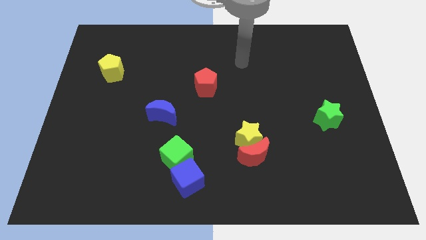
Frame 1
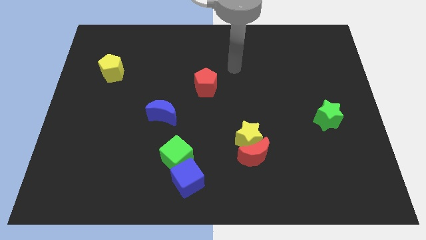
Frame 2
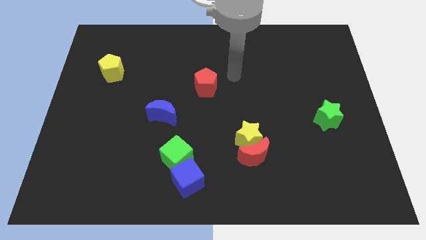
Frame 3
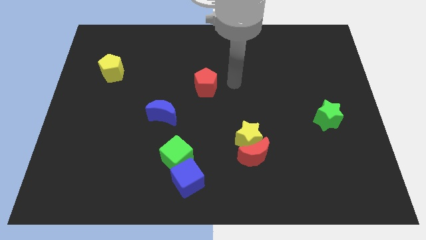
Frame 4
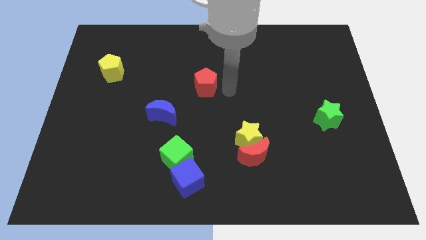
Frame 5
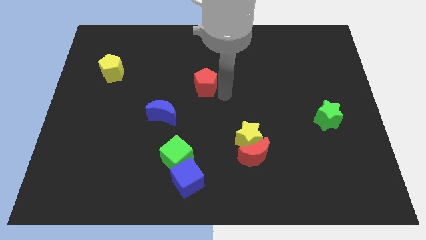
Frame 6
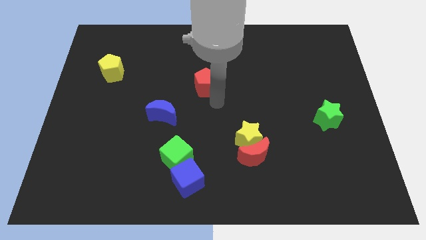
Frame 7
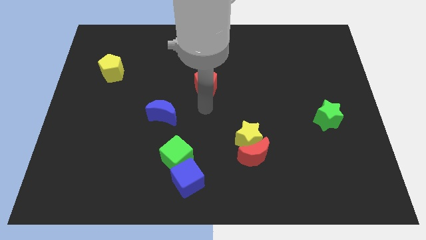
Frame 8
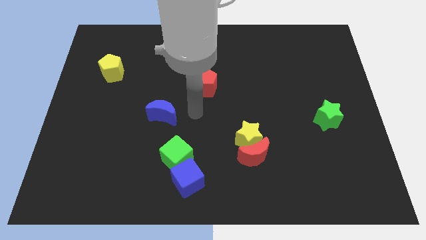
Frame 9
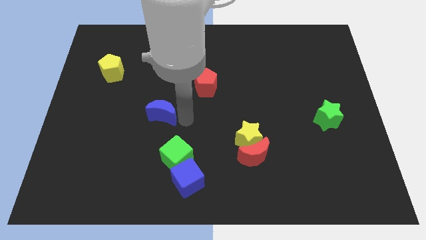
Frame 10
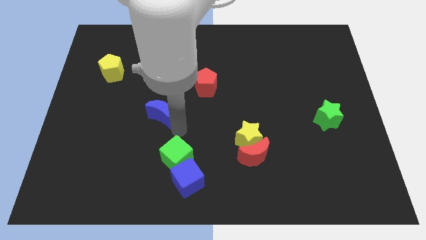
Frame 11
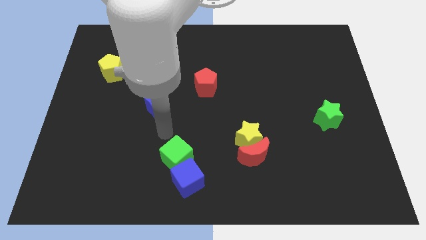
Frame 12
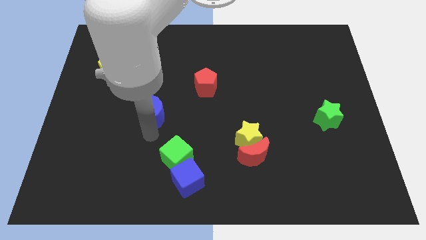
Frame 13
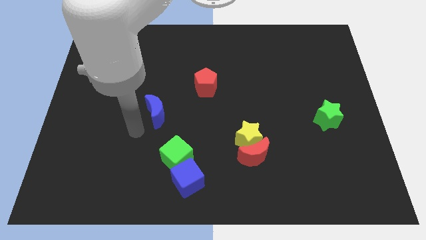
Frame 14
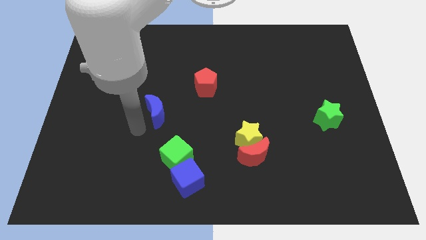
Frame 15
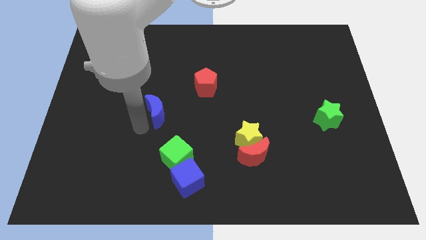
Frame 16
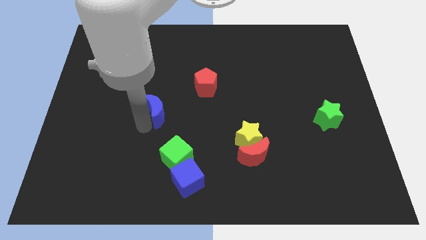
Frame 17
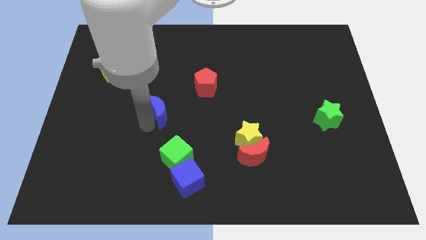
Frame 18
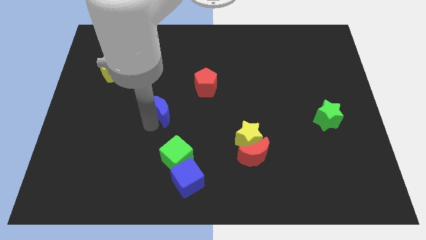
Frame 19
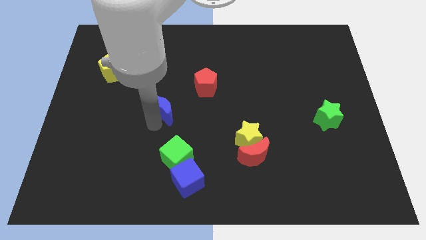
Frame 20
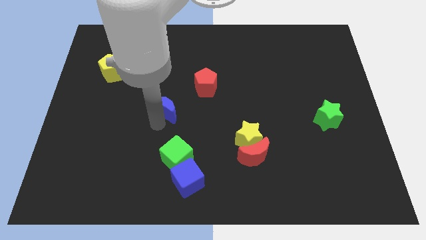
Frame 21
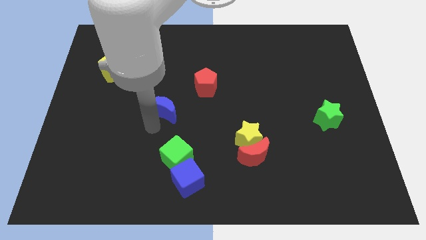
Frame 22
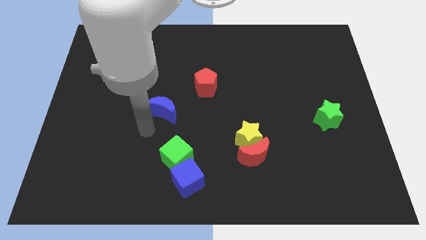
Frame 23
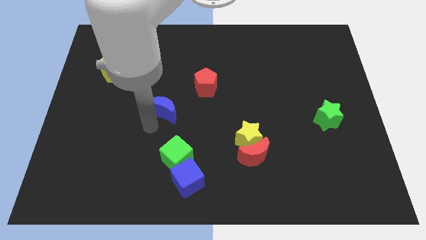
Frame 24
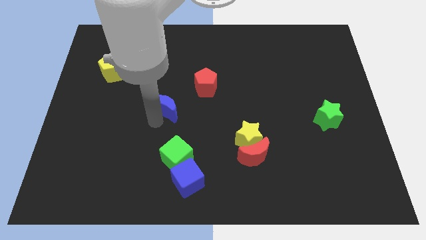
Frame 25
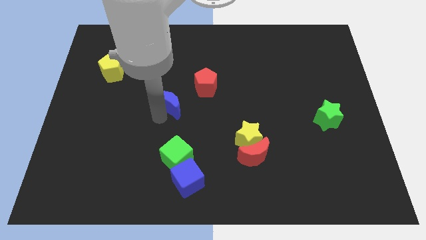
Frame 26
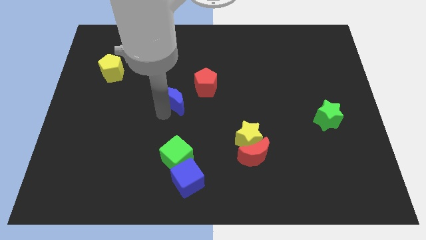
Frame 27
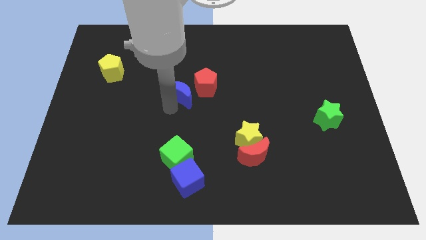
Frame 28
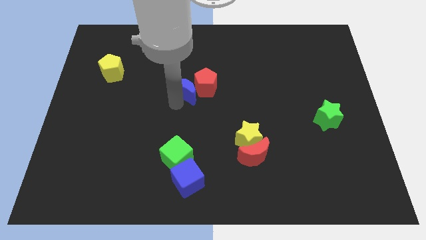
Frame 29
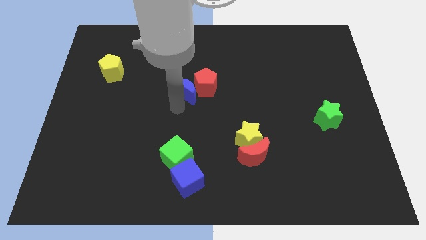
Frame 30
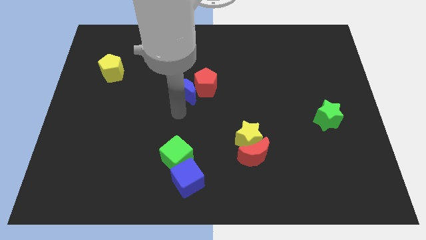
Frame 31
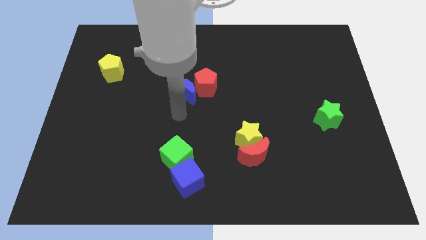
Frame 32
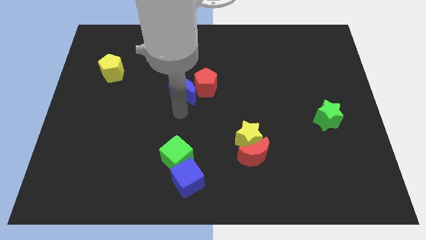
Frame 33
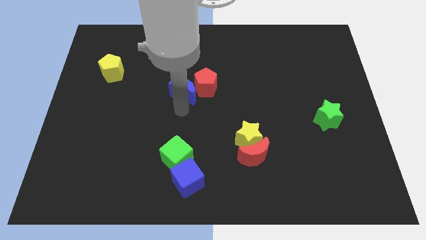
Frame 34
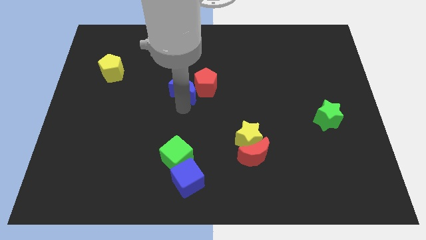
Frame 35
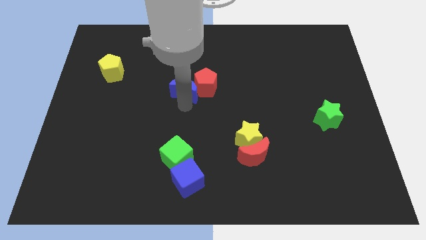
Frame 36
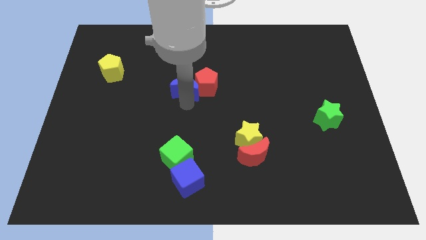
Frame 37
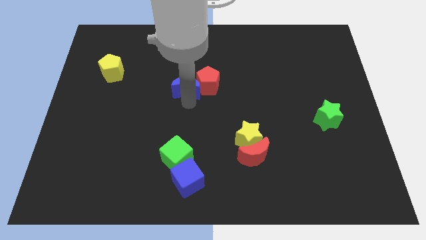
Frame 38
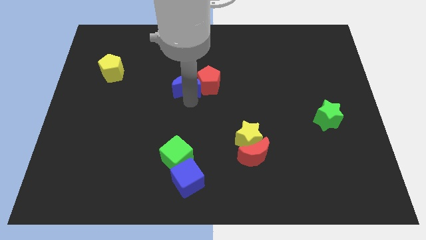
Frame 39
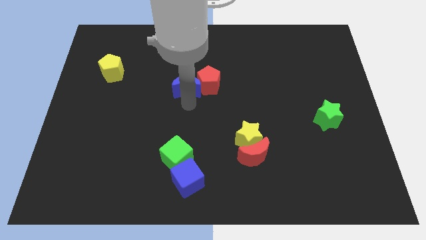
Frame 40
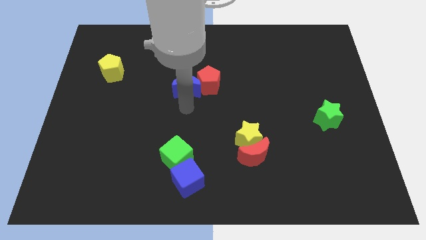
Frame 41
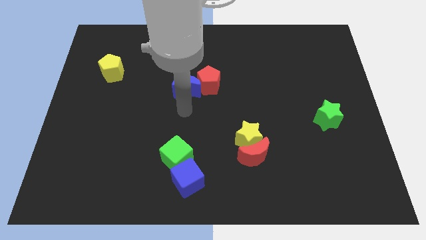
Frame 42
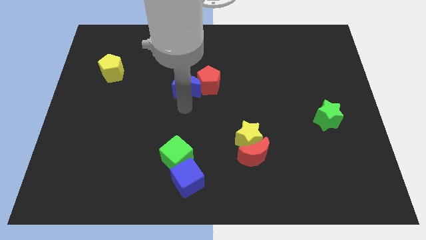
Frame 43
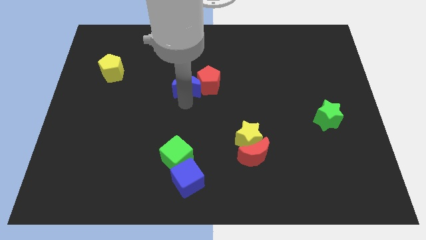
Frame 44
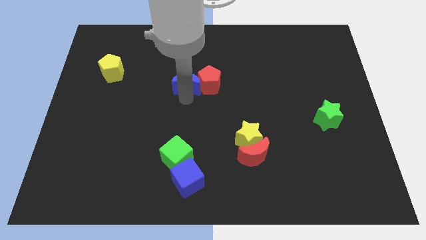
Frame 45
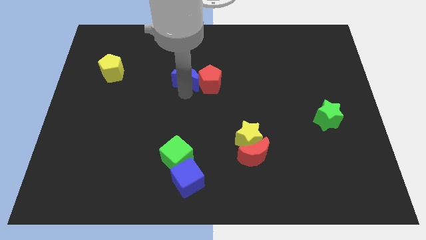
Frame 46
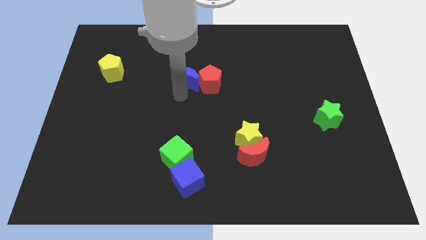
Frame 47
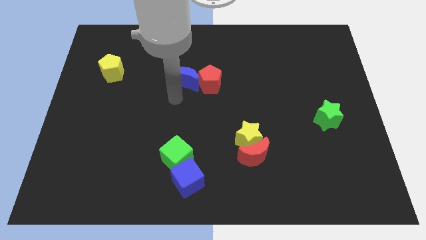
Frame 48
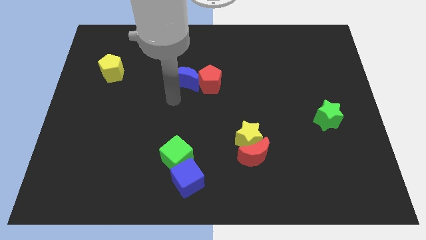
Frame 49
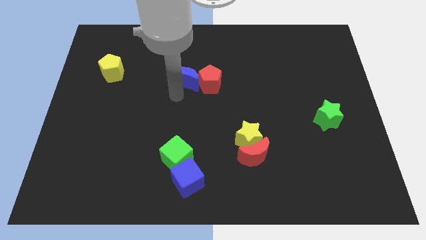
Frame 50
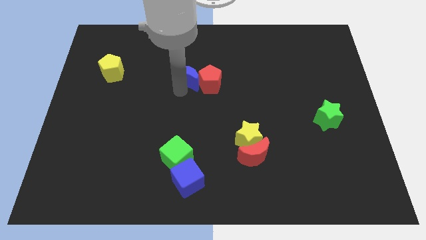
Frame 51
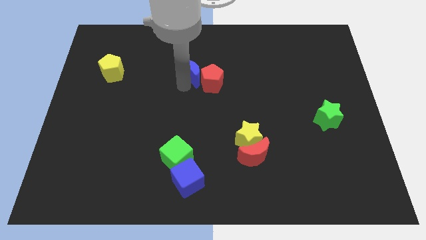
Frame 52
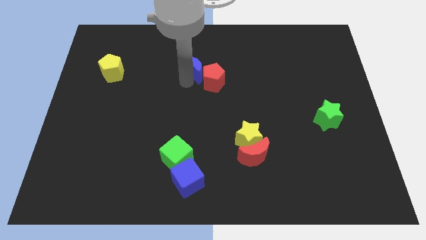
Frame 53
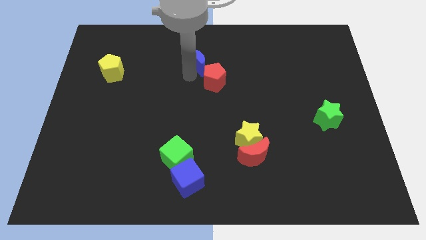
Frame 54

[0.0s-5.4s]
put the blue moon to the top of the red pentagon

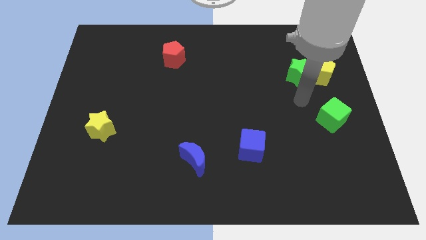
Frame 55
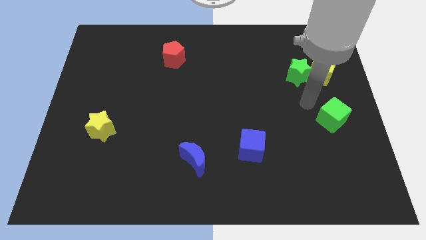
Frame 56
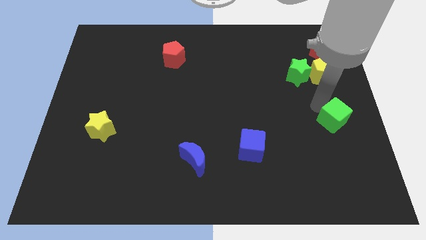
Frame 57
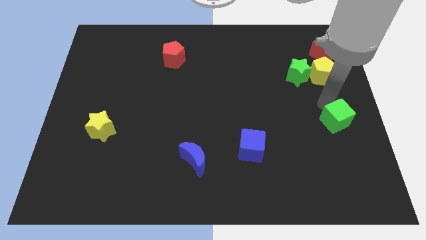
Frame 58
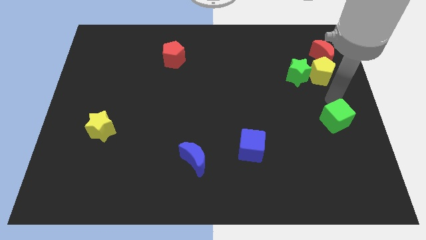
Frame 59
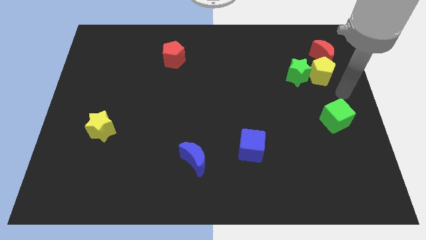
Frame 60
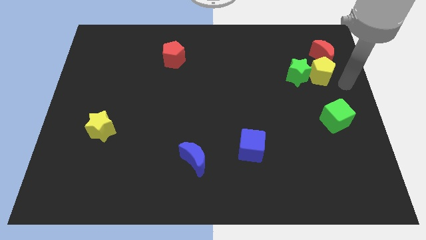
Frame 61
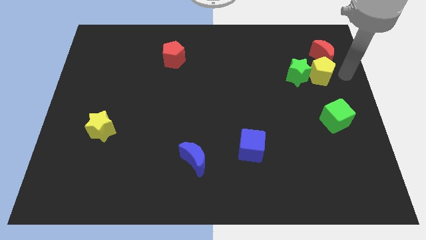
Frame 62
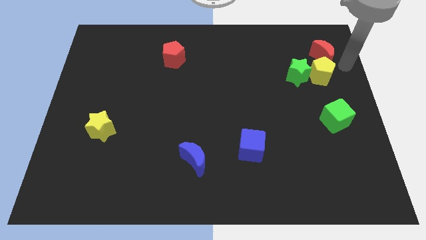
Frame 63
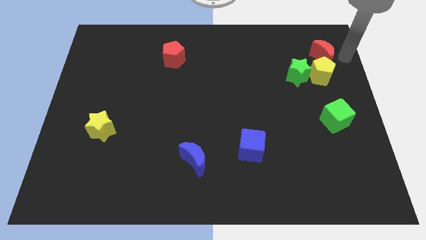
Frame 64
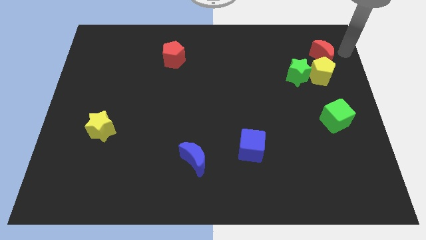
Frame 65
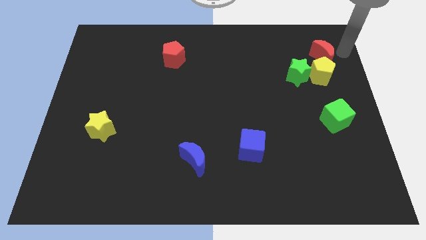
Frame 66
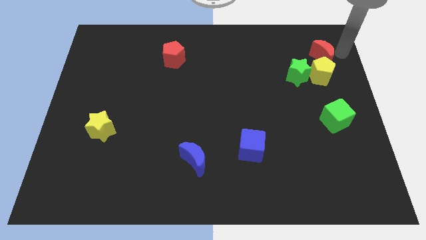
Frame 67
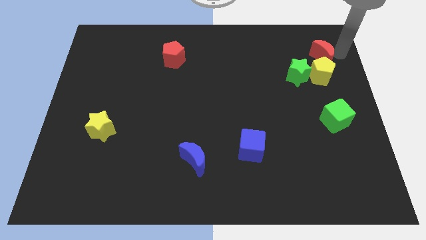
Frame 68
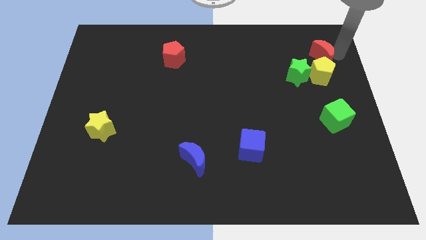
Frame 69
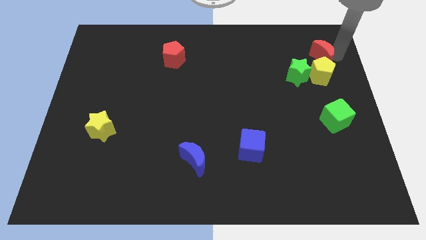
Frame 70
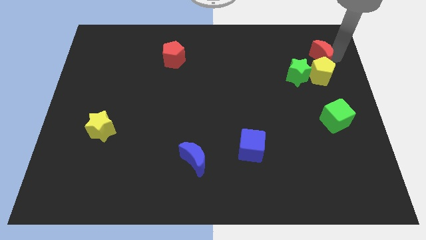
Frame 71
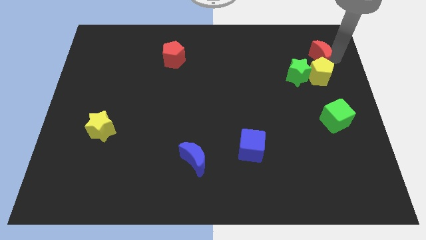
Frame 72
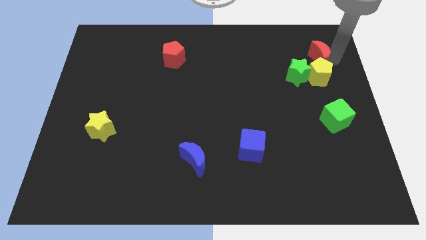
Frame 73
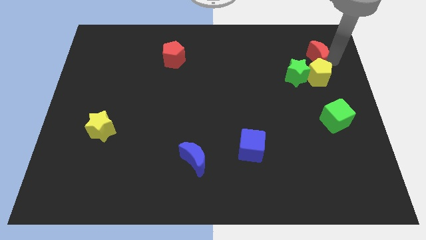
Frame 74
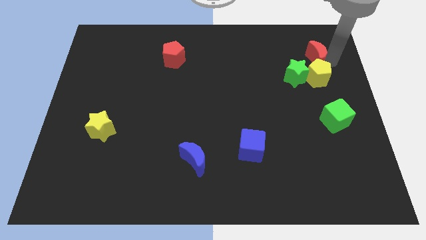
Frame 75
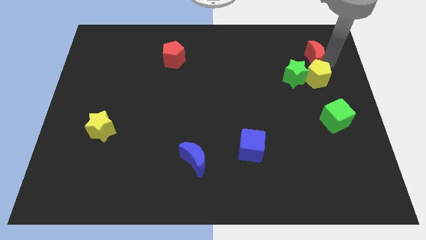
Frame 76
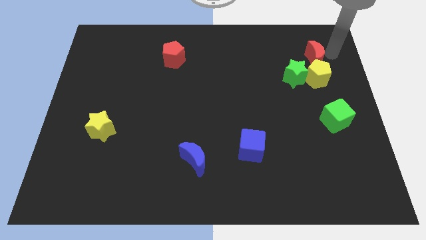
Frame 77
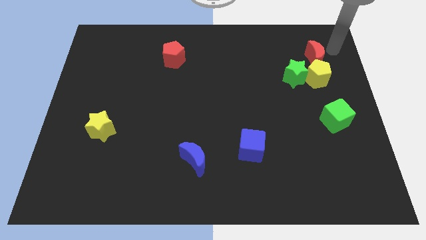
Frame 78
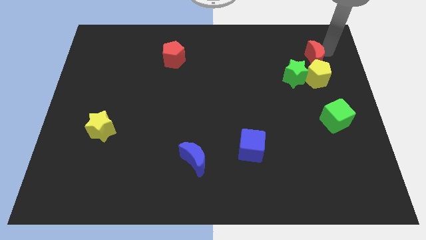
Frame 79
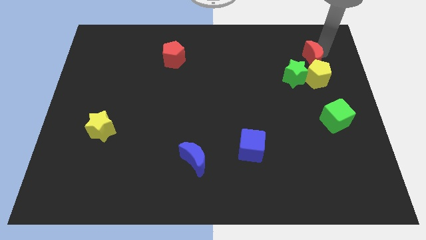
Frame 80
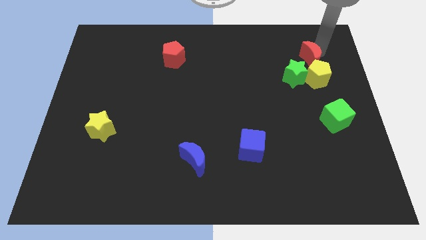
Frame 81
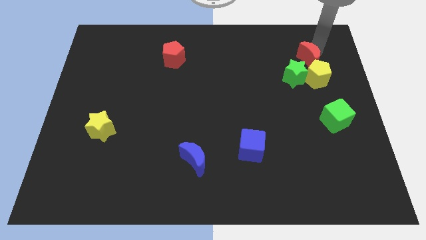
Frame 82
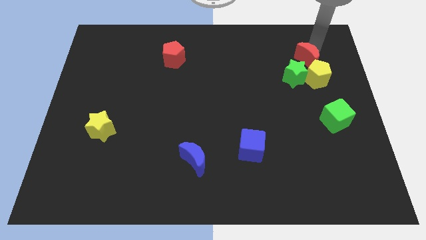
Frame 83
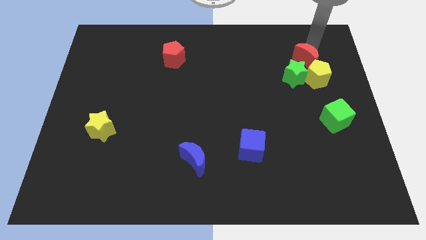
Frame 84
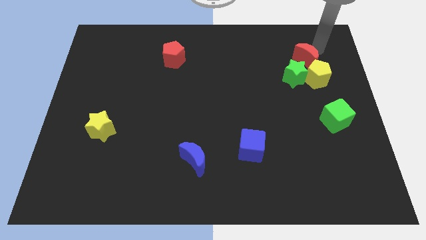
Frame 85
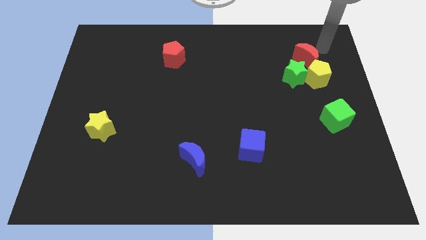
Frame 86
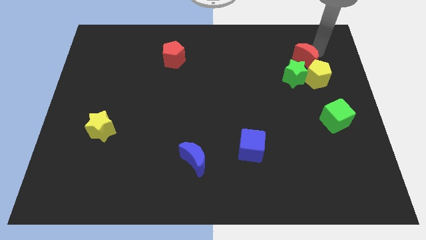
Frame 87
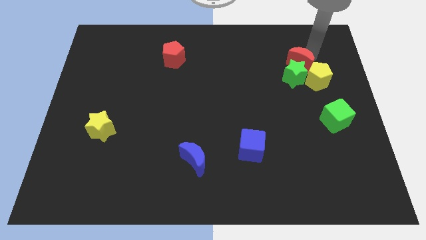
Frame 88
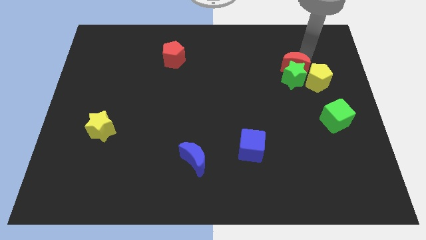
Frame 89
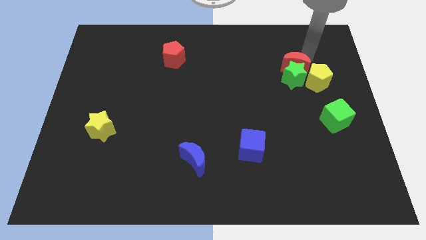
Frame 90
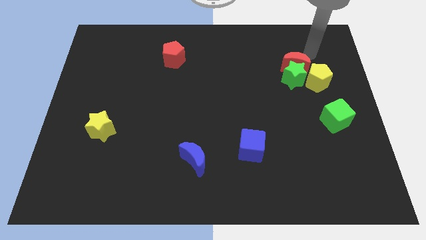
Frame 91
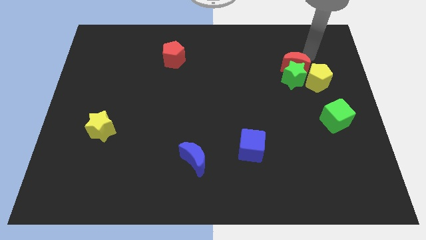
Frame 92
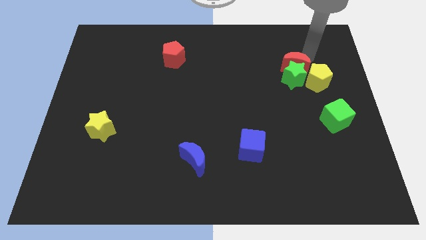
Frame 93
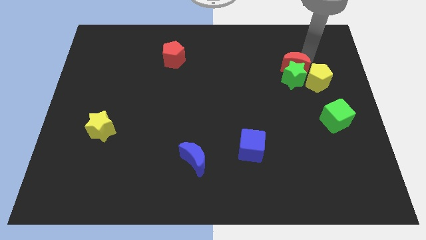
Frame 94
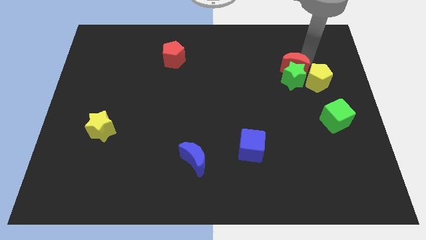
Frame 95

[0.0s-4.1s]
move the red moon left of the yellow pentagon
